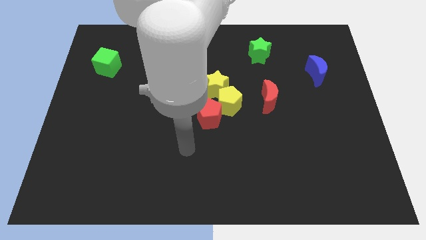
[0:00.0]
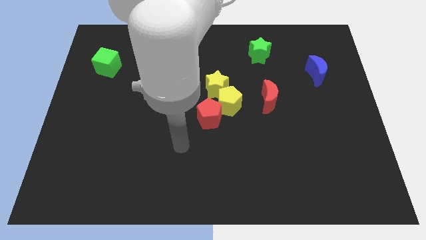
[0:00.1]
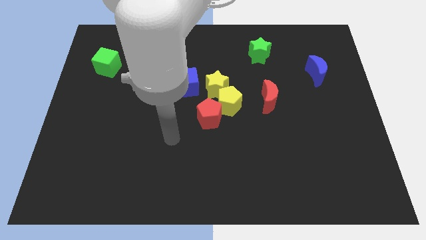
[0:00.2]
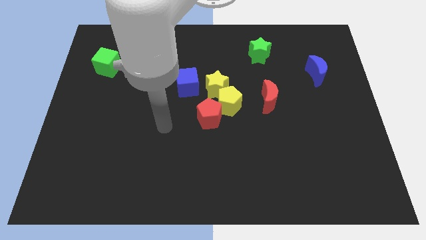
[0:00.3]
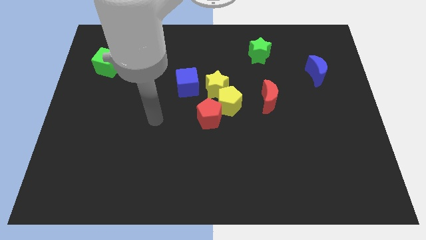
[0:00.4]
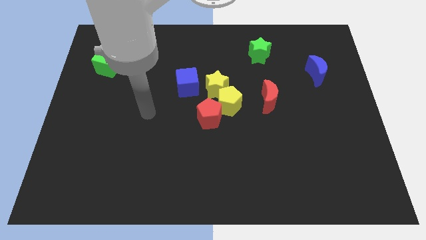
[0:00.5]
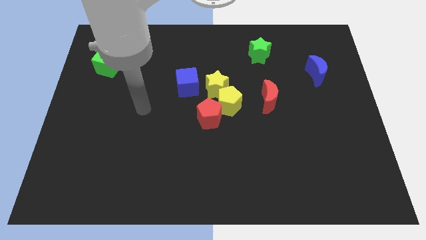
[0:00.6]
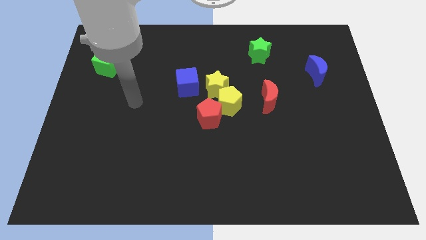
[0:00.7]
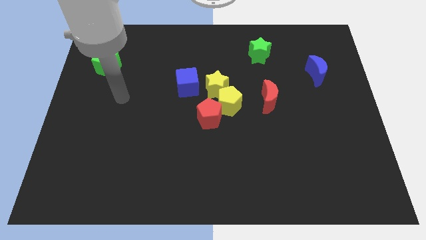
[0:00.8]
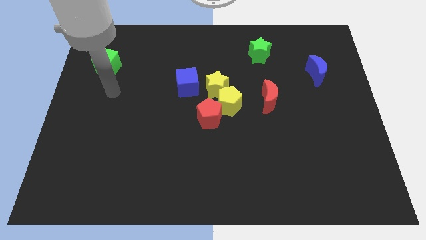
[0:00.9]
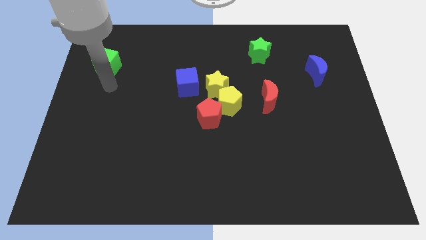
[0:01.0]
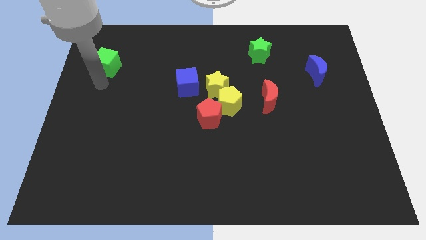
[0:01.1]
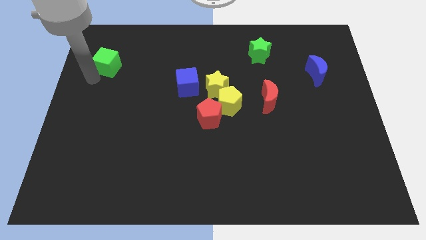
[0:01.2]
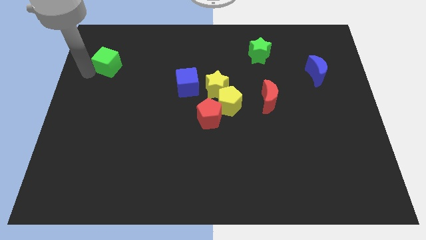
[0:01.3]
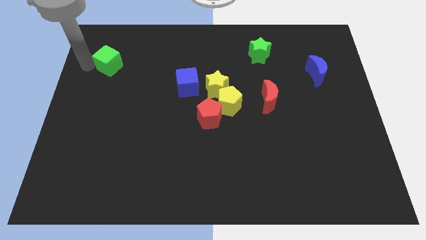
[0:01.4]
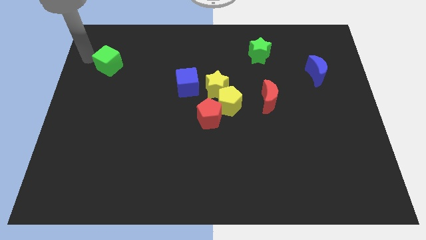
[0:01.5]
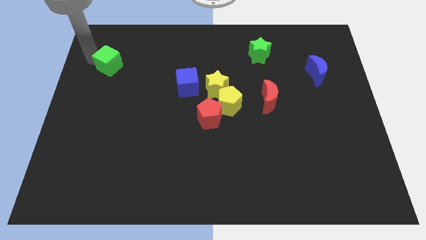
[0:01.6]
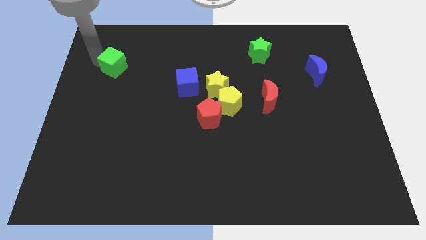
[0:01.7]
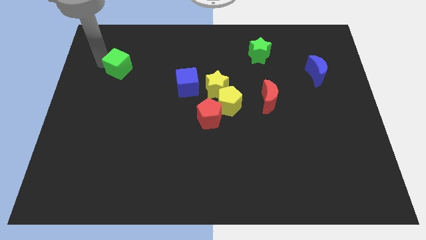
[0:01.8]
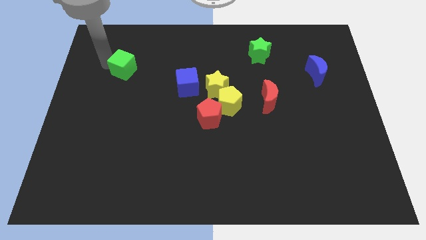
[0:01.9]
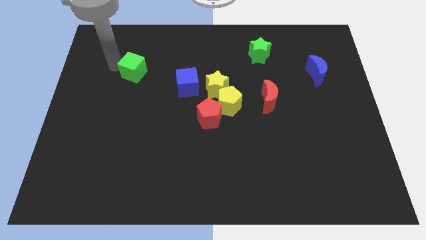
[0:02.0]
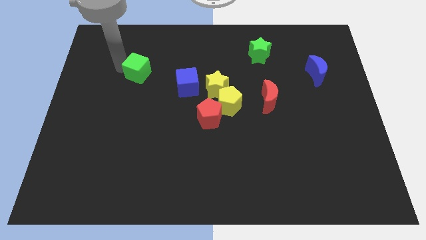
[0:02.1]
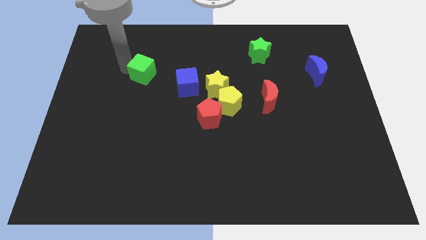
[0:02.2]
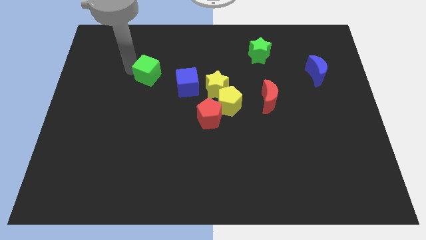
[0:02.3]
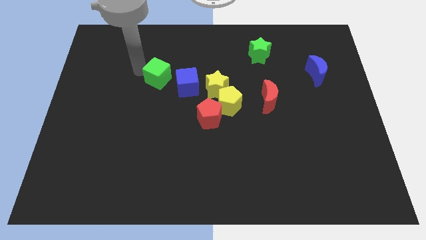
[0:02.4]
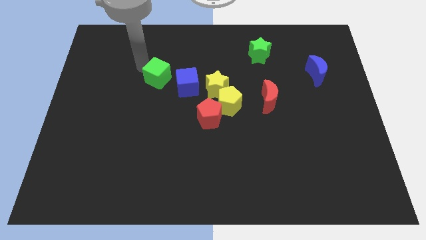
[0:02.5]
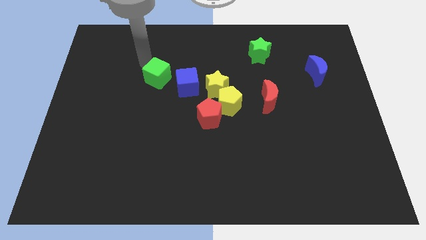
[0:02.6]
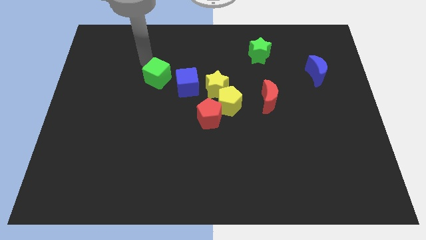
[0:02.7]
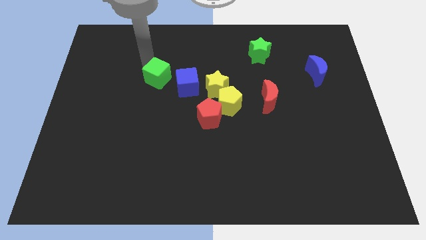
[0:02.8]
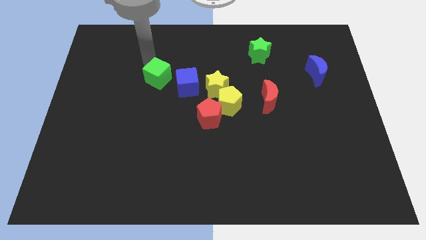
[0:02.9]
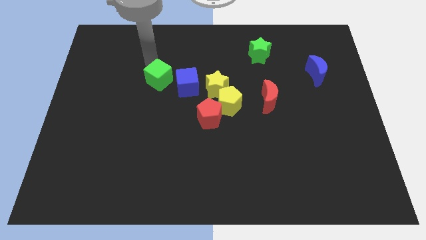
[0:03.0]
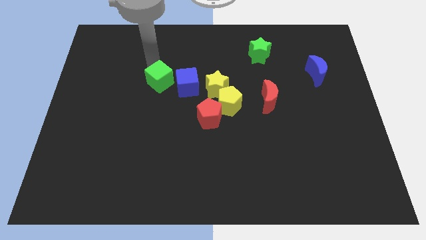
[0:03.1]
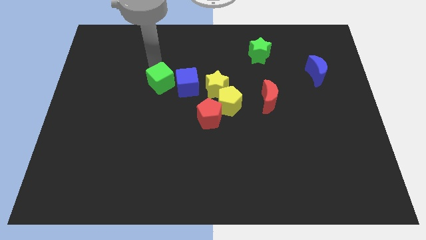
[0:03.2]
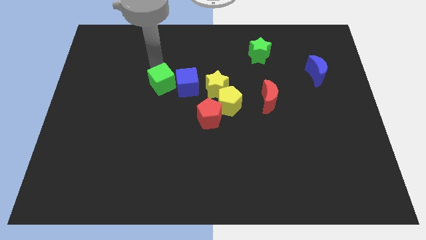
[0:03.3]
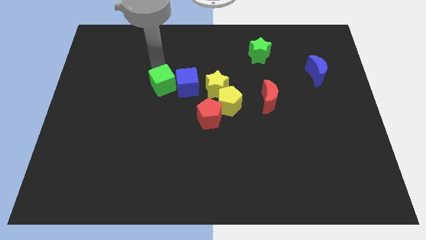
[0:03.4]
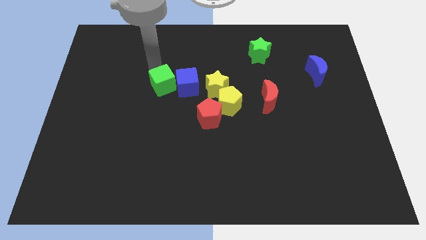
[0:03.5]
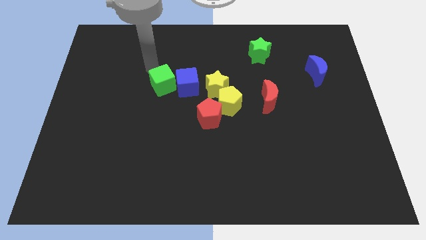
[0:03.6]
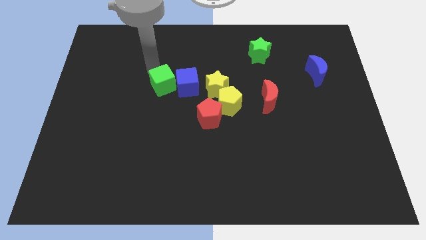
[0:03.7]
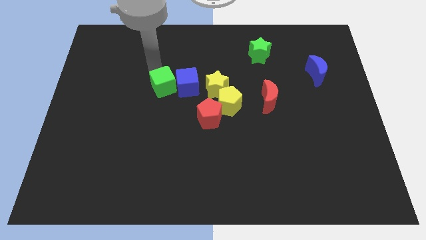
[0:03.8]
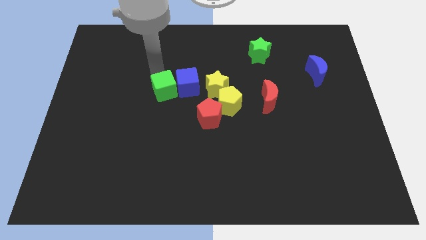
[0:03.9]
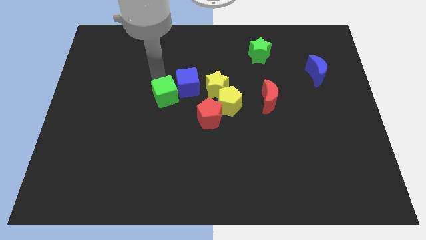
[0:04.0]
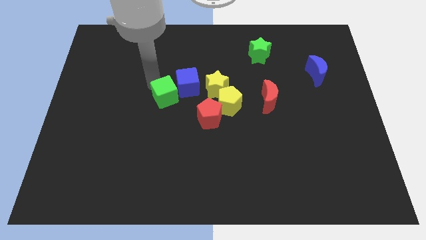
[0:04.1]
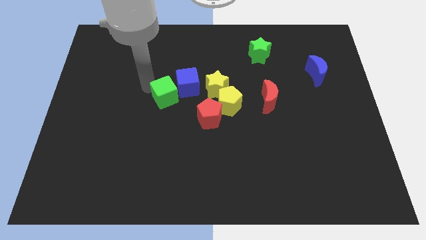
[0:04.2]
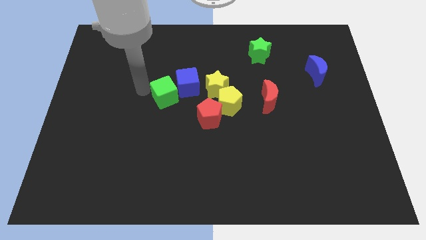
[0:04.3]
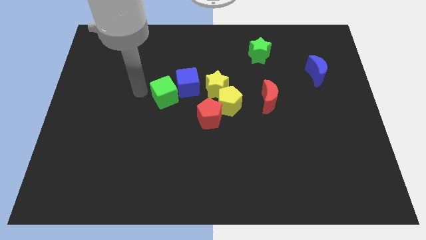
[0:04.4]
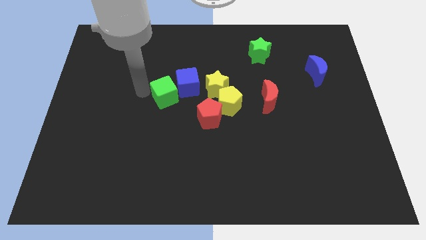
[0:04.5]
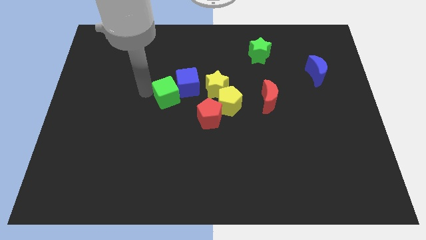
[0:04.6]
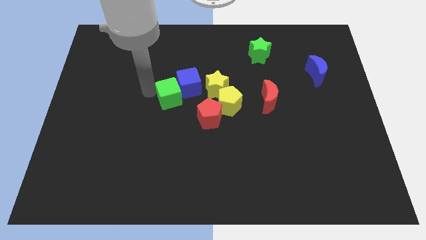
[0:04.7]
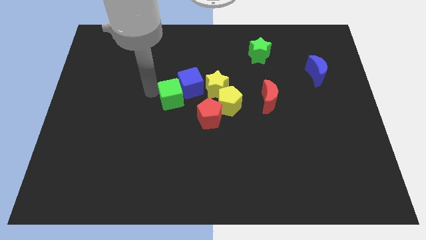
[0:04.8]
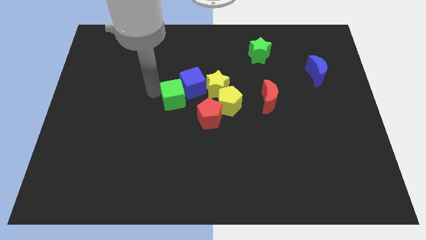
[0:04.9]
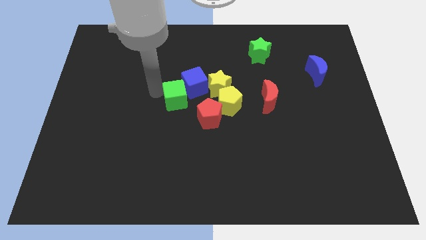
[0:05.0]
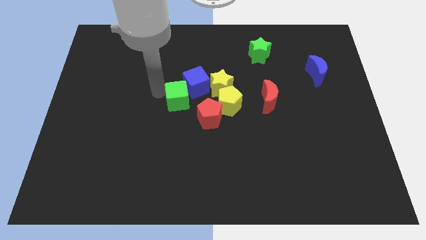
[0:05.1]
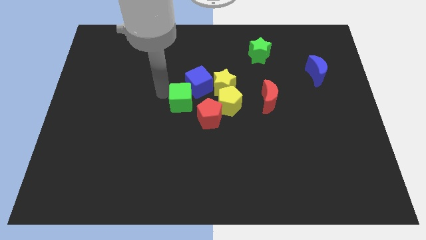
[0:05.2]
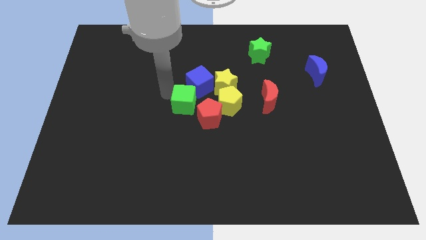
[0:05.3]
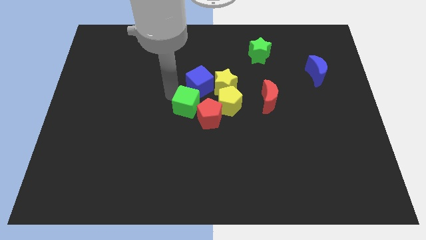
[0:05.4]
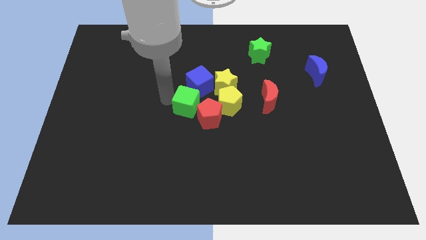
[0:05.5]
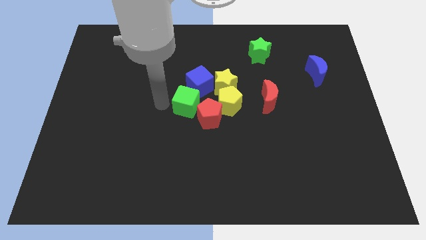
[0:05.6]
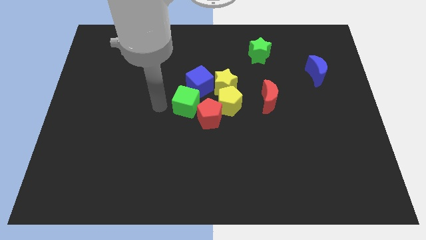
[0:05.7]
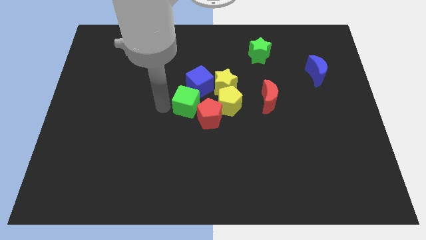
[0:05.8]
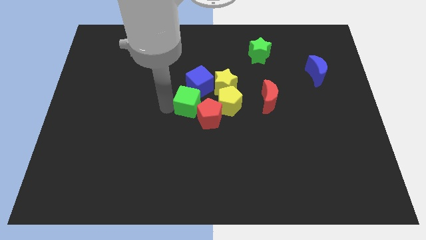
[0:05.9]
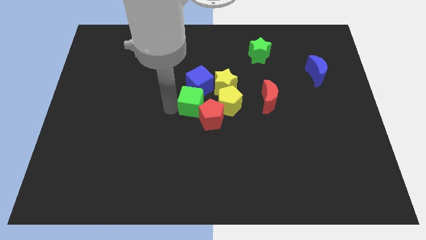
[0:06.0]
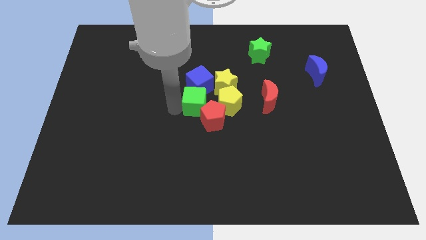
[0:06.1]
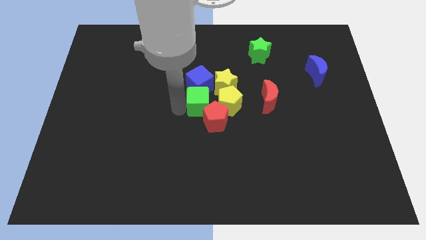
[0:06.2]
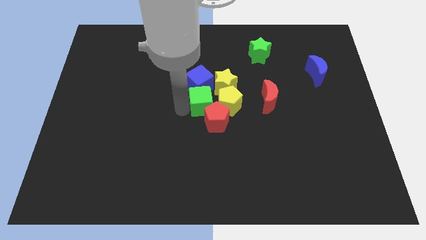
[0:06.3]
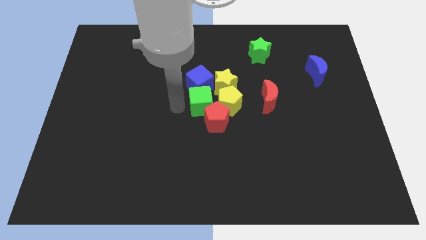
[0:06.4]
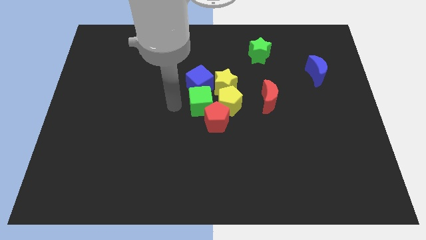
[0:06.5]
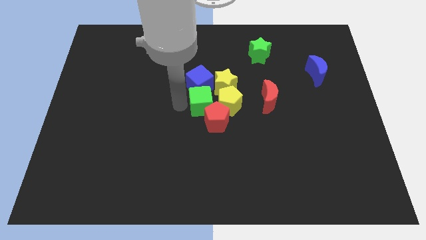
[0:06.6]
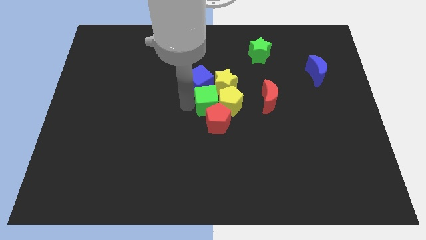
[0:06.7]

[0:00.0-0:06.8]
move the green cube close to the yellow pentagon

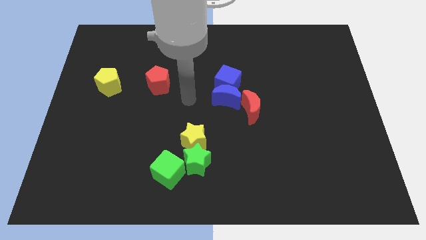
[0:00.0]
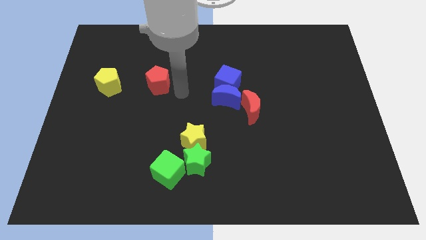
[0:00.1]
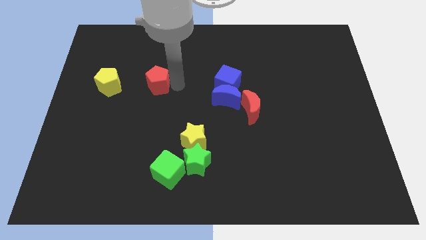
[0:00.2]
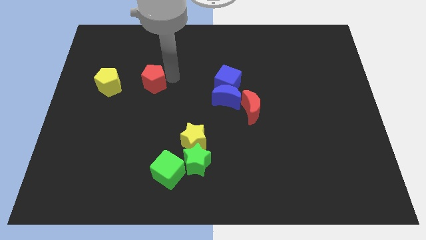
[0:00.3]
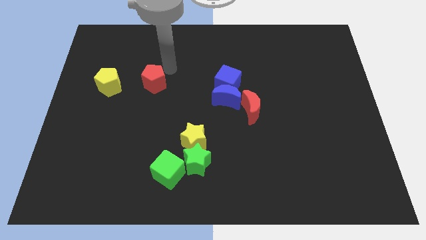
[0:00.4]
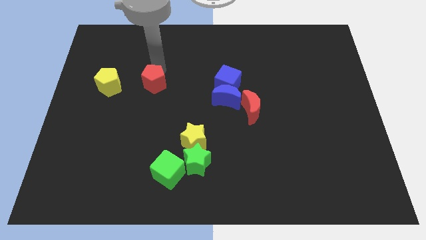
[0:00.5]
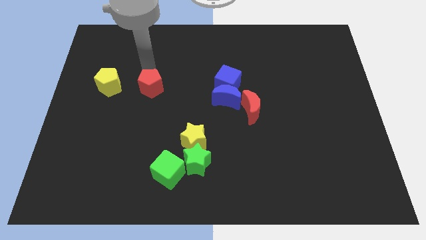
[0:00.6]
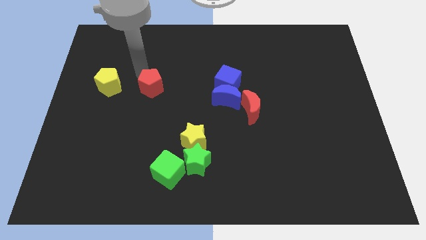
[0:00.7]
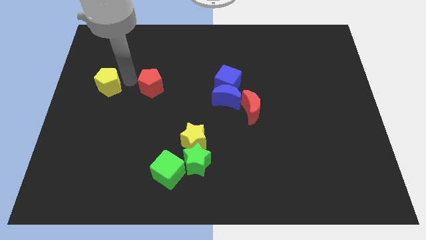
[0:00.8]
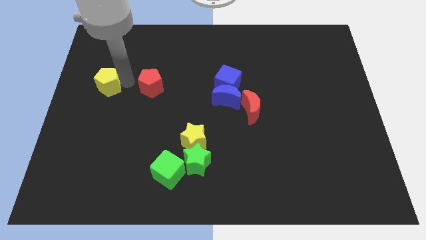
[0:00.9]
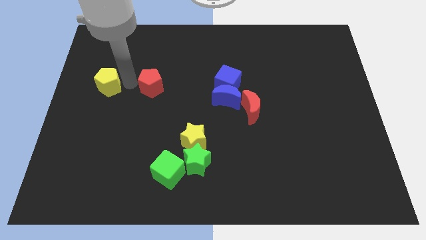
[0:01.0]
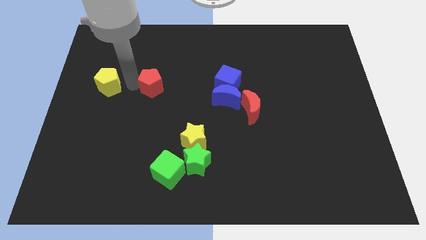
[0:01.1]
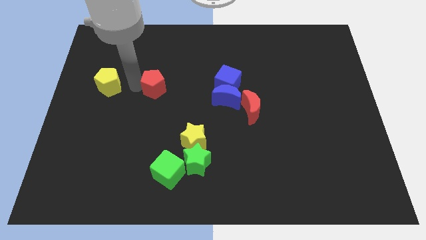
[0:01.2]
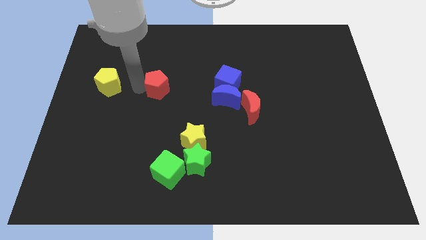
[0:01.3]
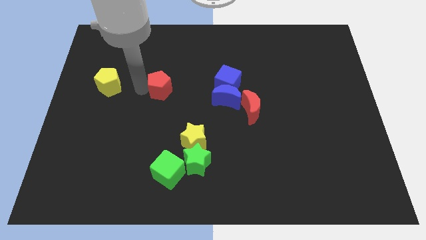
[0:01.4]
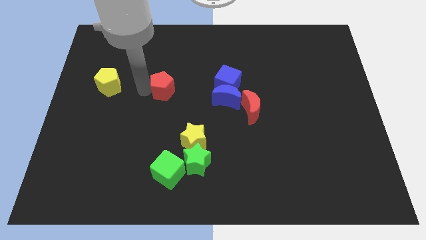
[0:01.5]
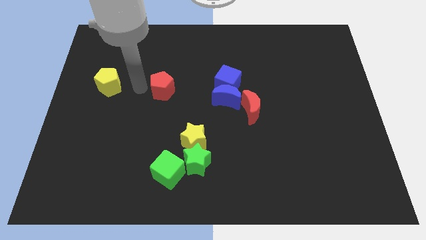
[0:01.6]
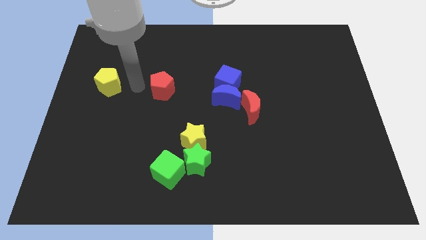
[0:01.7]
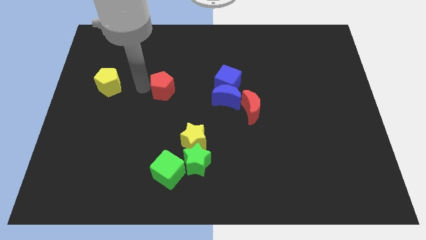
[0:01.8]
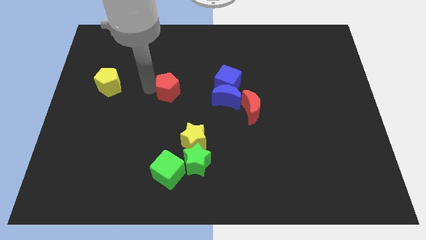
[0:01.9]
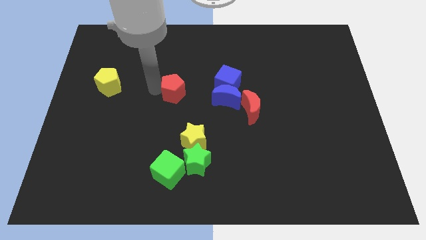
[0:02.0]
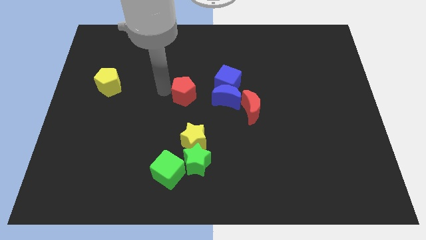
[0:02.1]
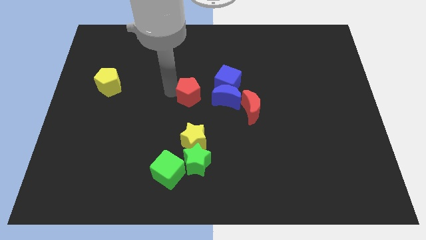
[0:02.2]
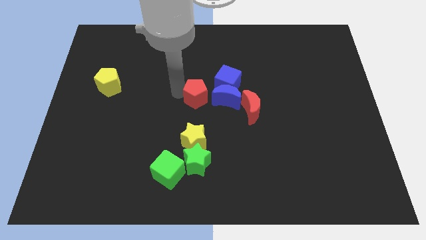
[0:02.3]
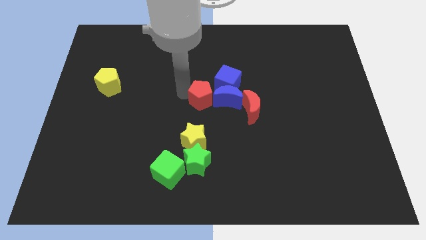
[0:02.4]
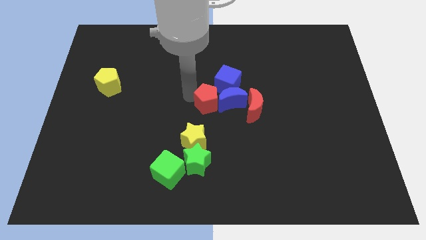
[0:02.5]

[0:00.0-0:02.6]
push the red pentagon towards the blue moon
